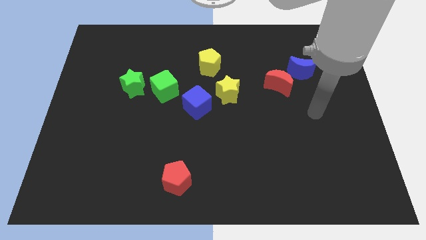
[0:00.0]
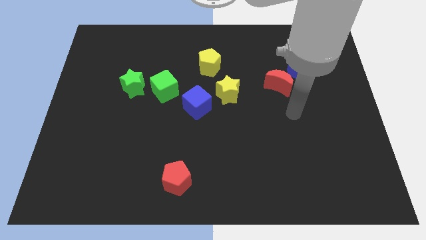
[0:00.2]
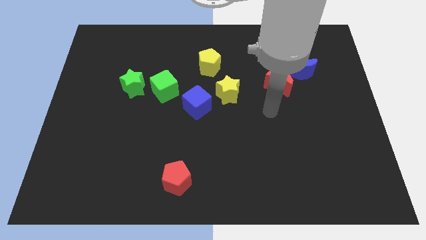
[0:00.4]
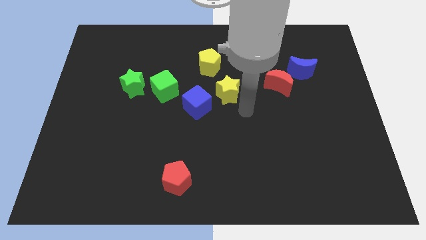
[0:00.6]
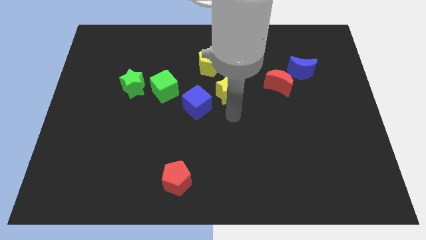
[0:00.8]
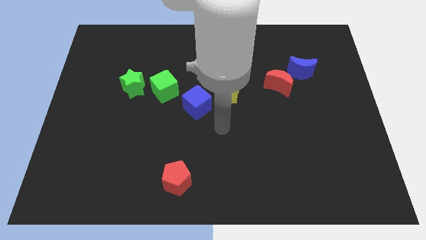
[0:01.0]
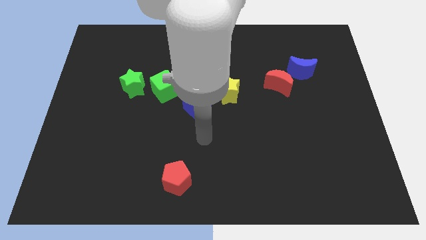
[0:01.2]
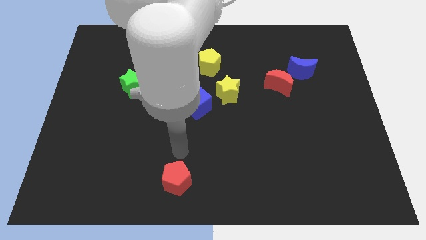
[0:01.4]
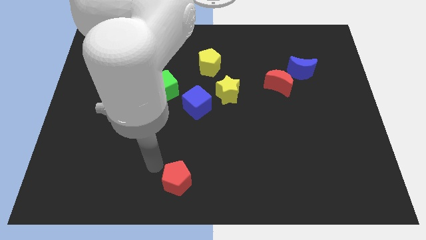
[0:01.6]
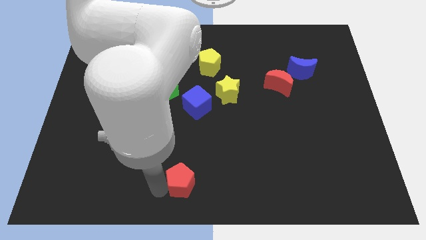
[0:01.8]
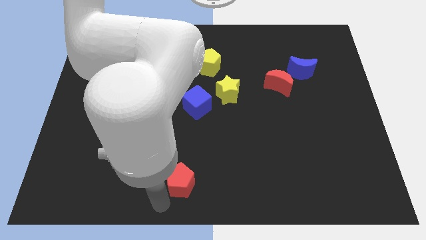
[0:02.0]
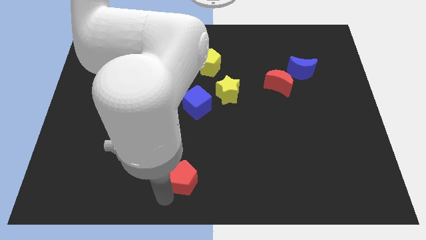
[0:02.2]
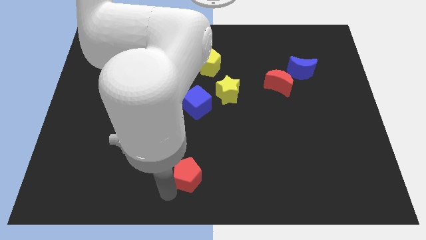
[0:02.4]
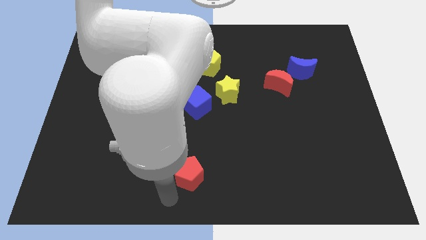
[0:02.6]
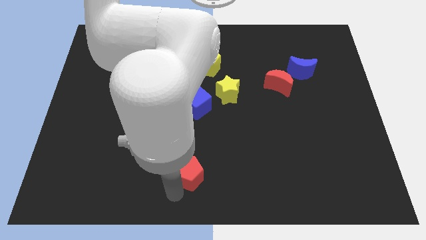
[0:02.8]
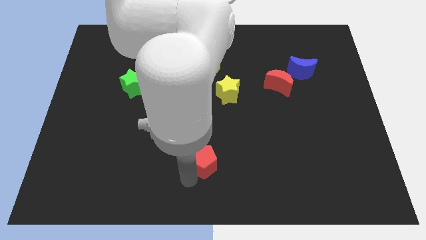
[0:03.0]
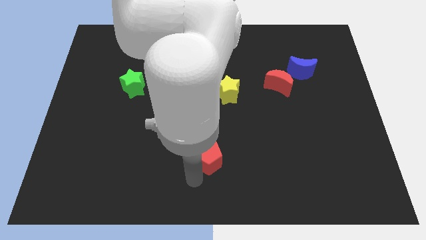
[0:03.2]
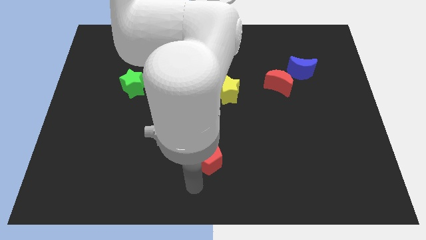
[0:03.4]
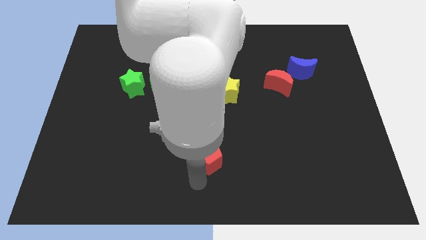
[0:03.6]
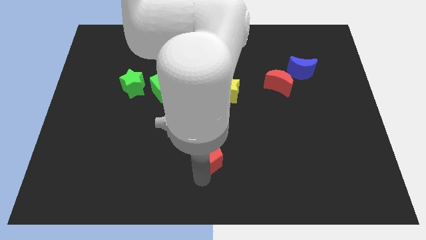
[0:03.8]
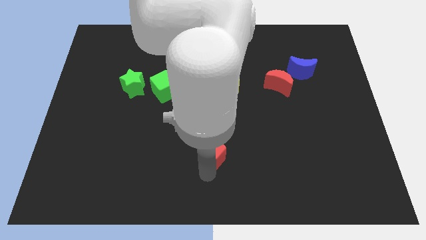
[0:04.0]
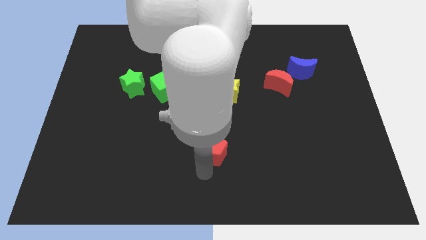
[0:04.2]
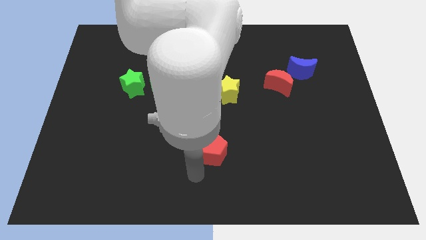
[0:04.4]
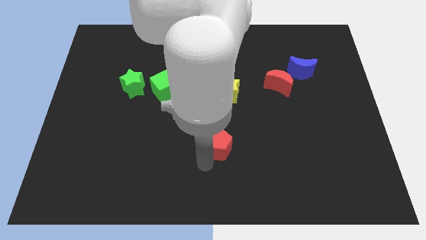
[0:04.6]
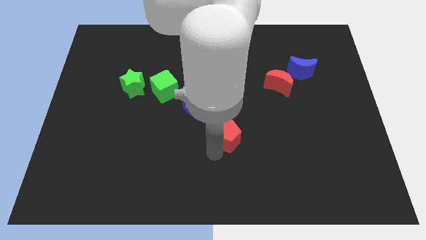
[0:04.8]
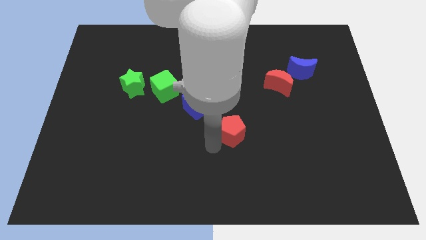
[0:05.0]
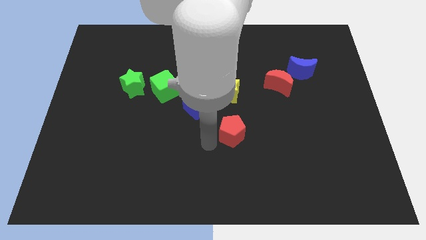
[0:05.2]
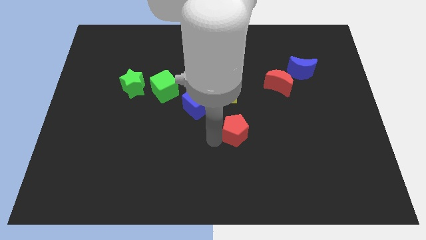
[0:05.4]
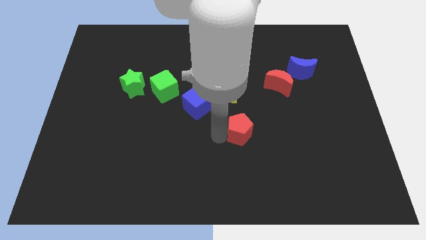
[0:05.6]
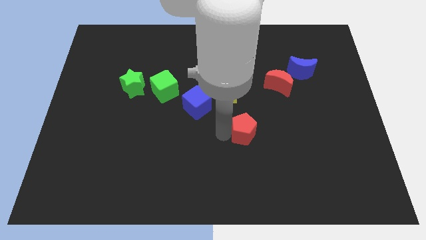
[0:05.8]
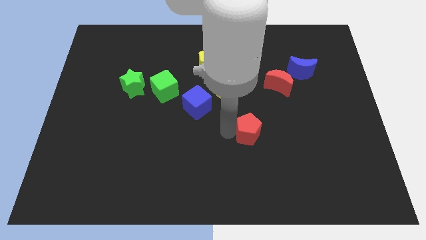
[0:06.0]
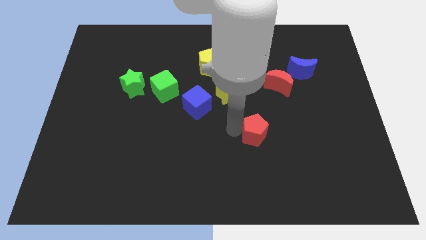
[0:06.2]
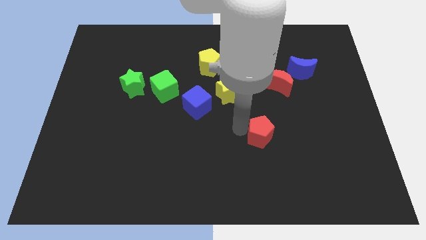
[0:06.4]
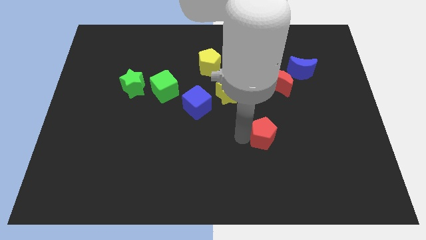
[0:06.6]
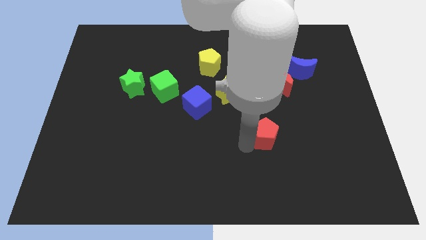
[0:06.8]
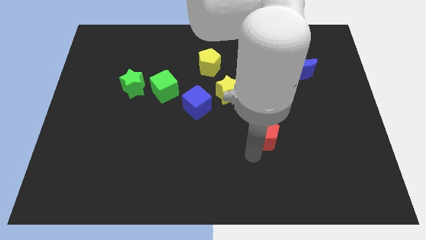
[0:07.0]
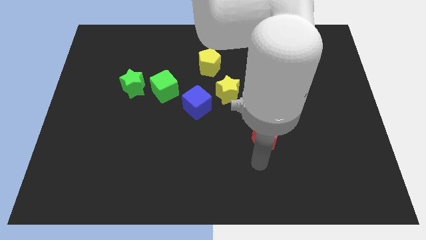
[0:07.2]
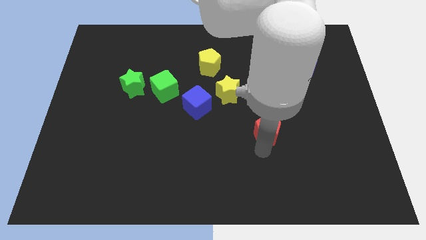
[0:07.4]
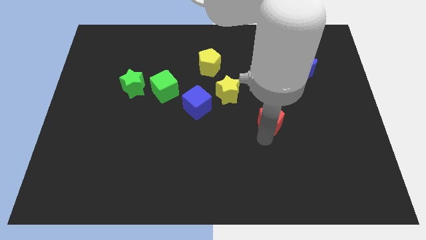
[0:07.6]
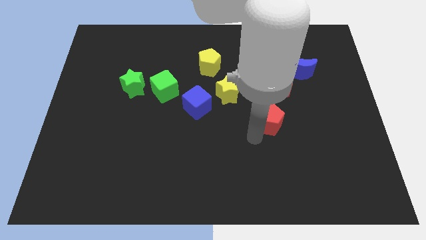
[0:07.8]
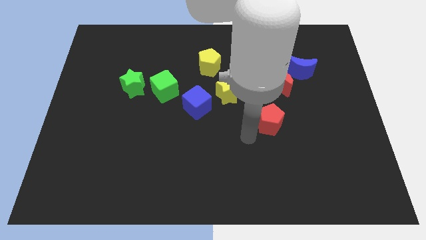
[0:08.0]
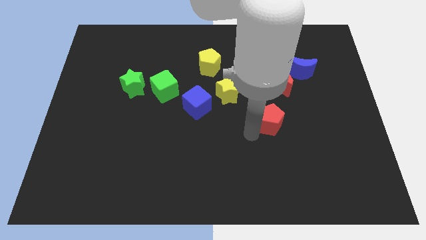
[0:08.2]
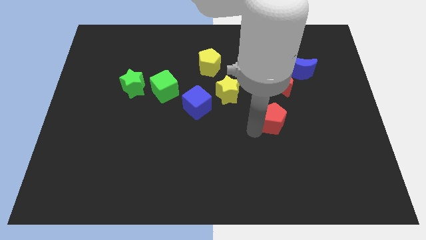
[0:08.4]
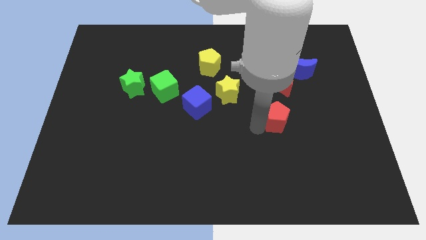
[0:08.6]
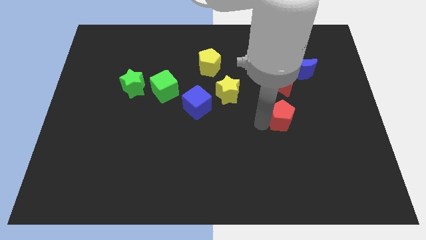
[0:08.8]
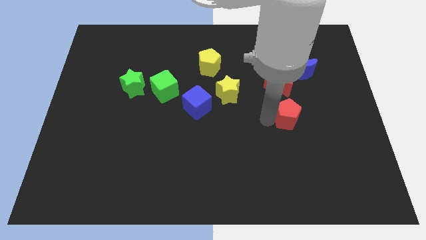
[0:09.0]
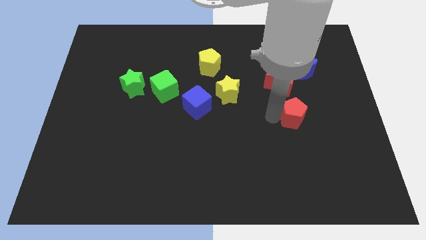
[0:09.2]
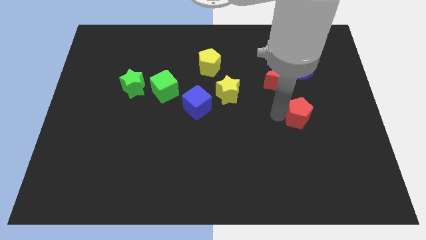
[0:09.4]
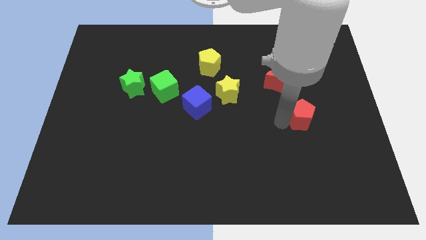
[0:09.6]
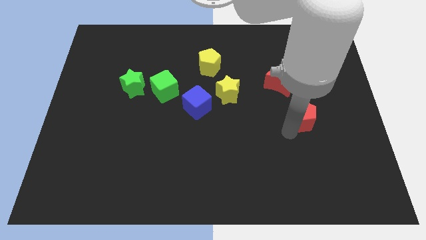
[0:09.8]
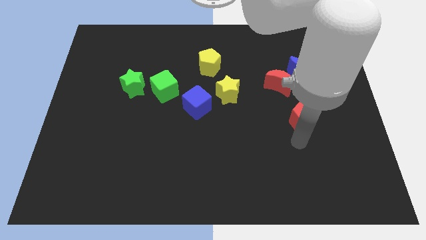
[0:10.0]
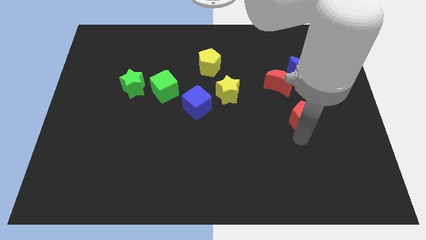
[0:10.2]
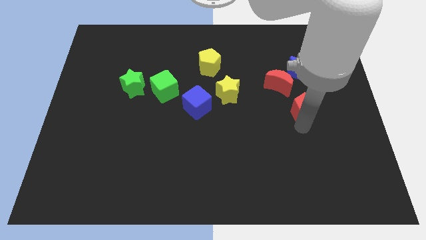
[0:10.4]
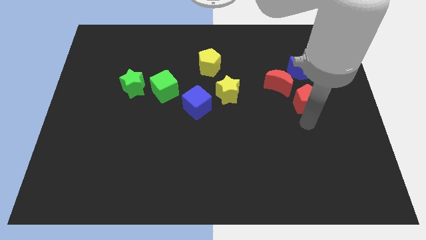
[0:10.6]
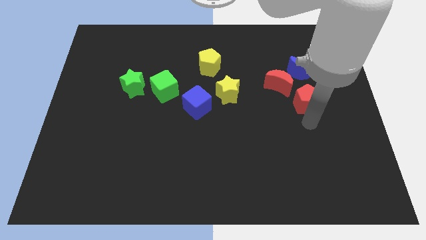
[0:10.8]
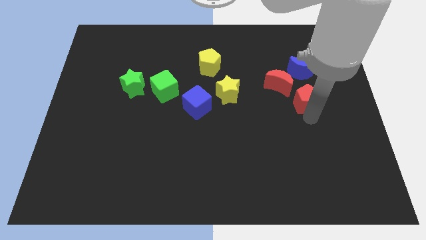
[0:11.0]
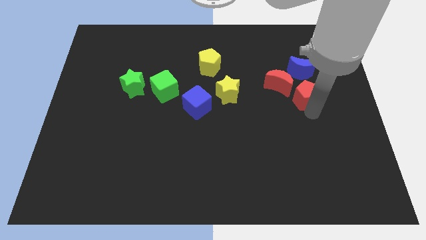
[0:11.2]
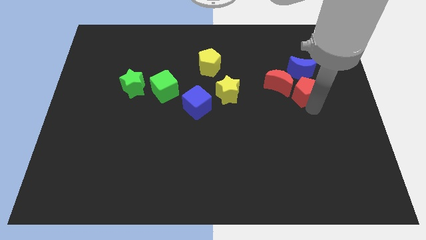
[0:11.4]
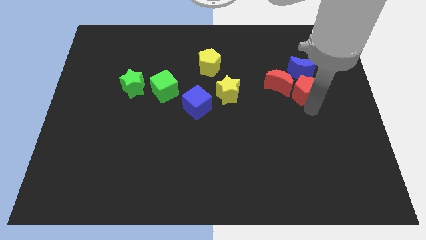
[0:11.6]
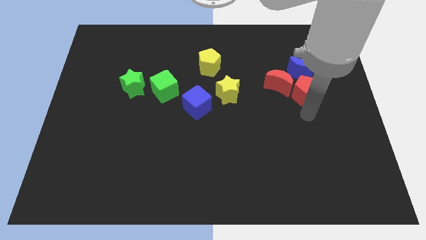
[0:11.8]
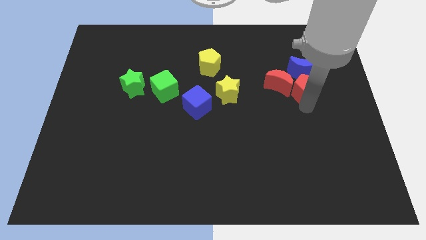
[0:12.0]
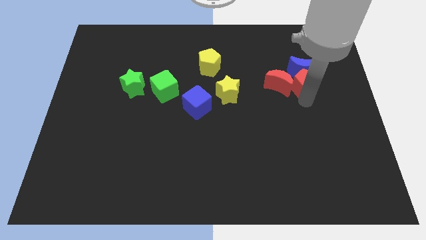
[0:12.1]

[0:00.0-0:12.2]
move the red pentagon towards the blue moon

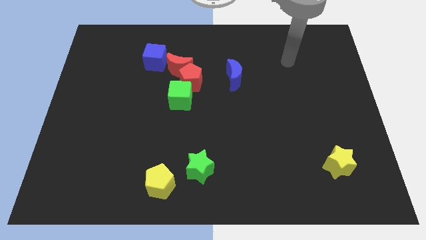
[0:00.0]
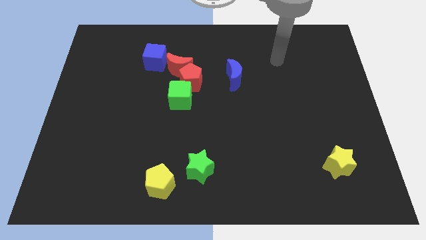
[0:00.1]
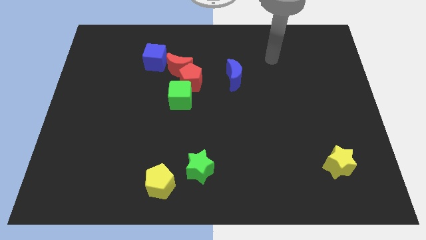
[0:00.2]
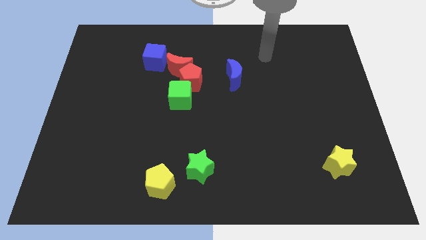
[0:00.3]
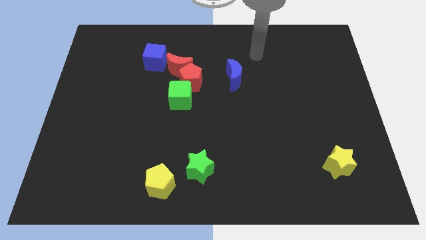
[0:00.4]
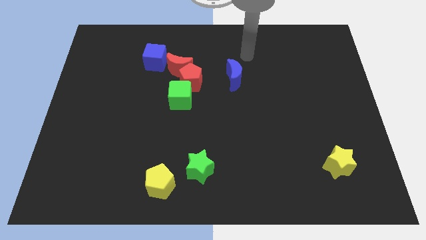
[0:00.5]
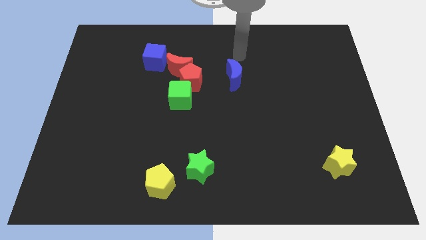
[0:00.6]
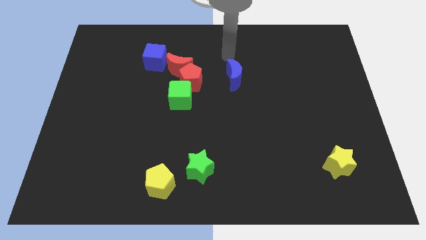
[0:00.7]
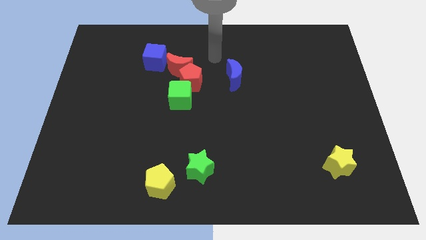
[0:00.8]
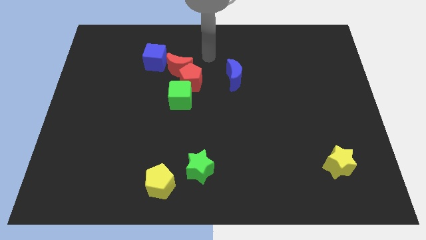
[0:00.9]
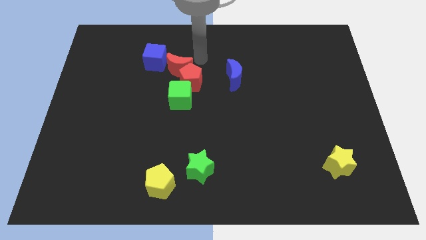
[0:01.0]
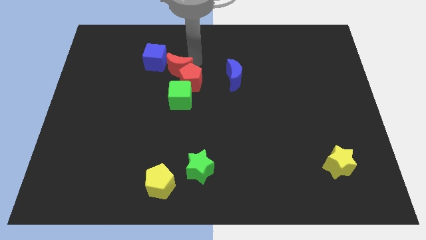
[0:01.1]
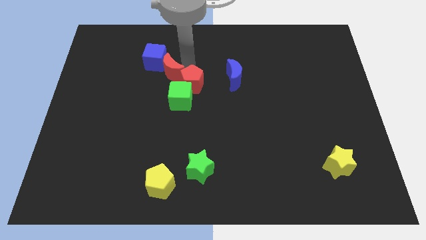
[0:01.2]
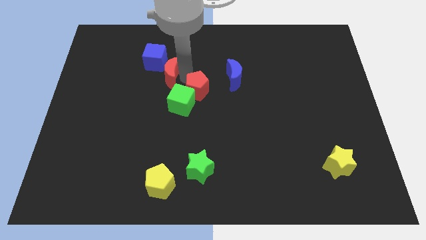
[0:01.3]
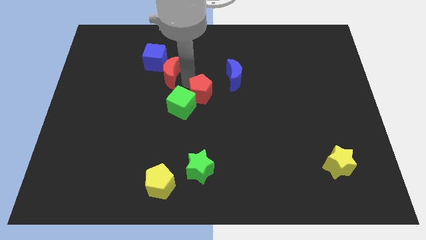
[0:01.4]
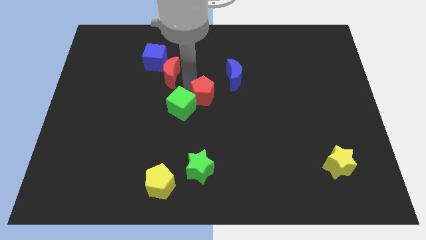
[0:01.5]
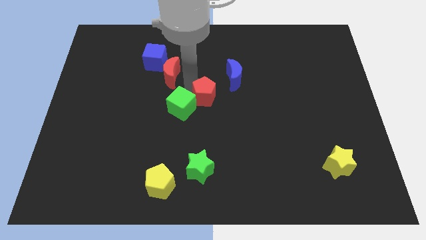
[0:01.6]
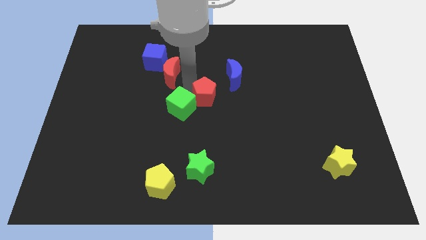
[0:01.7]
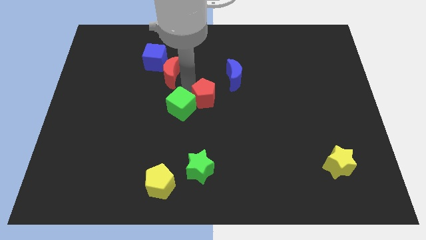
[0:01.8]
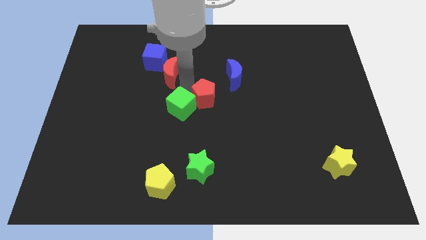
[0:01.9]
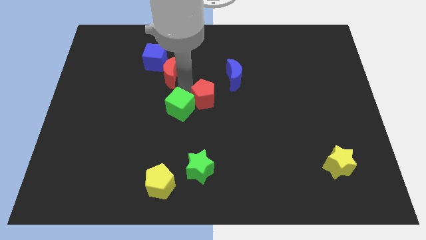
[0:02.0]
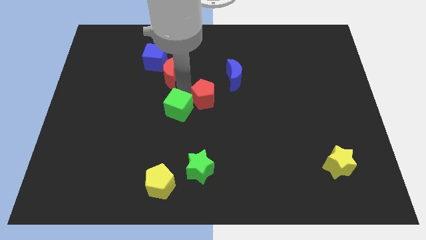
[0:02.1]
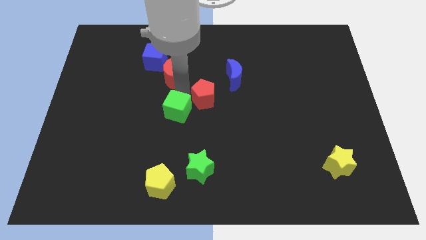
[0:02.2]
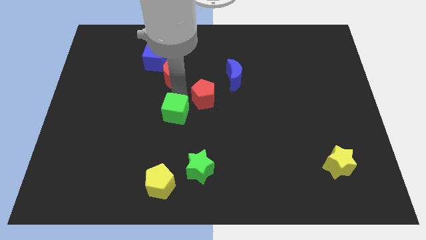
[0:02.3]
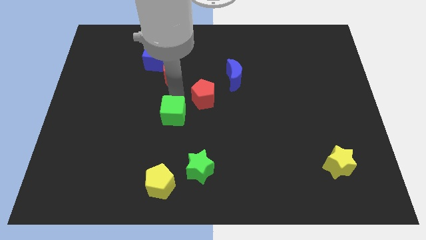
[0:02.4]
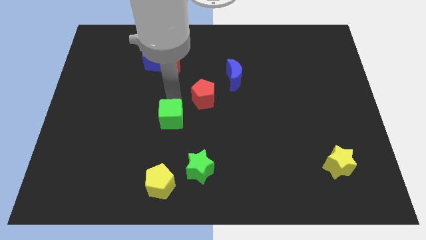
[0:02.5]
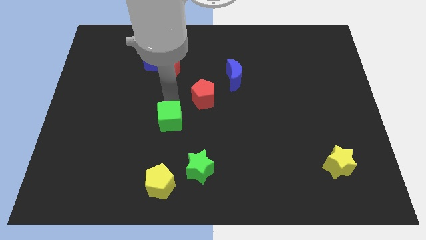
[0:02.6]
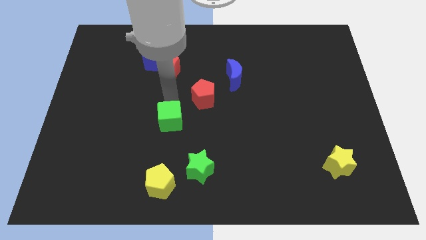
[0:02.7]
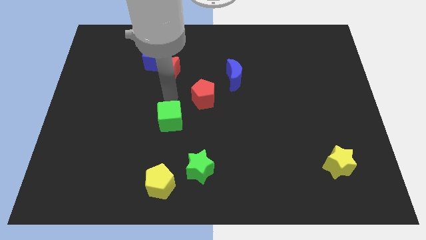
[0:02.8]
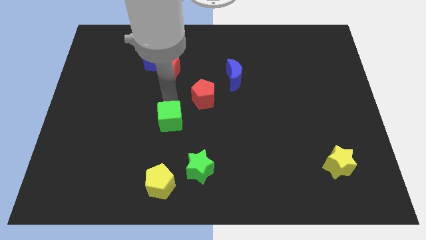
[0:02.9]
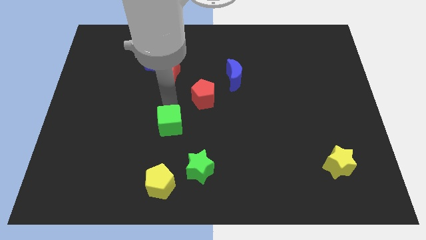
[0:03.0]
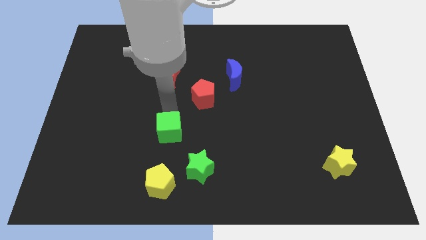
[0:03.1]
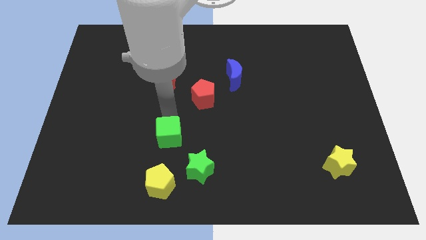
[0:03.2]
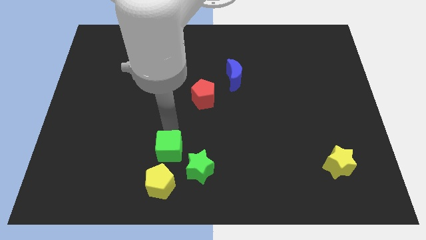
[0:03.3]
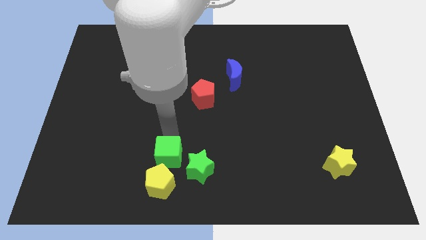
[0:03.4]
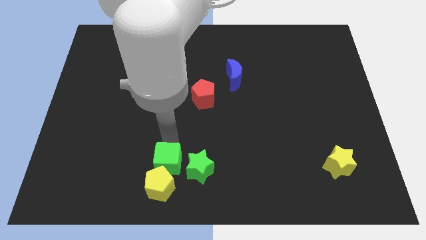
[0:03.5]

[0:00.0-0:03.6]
slide the green cube next to the yellow pentagon
